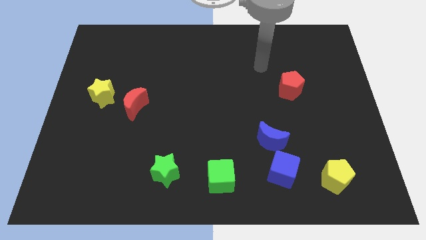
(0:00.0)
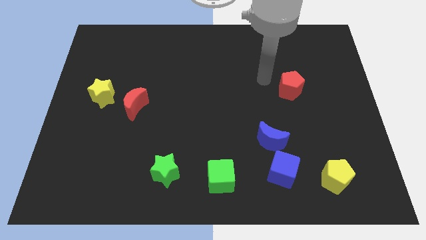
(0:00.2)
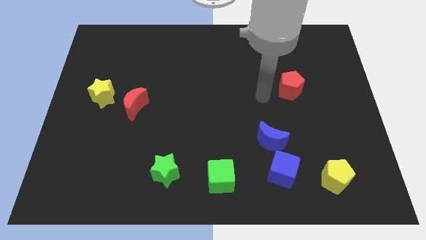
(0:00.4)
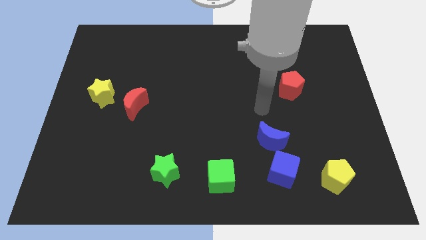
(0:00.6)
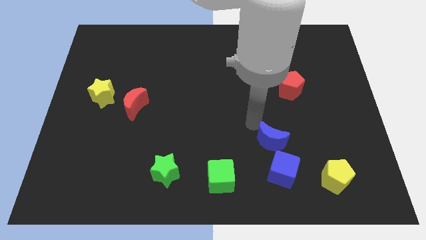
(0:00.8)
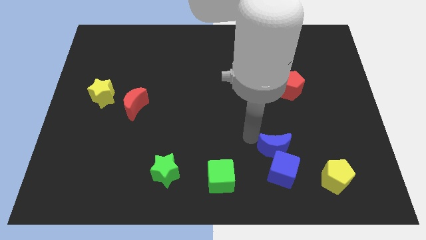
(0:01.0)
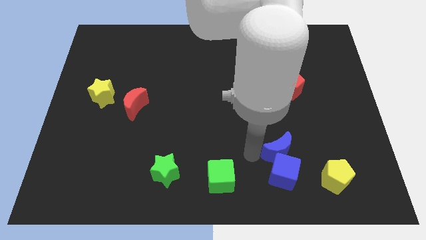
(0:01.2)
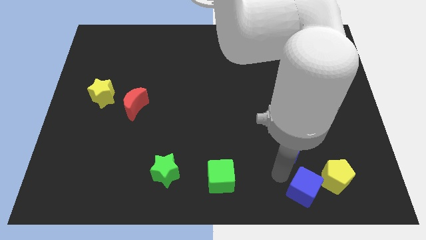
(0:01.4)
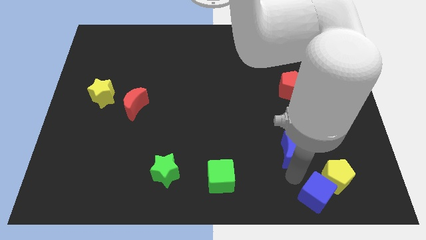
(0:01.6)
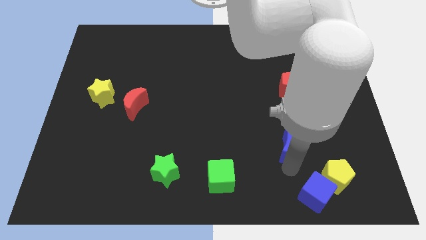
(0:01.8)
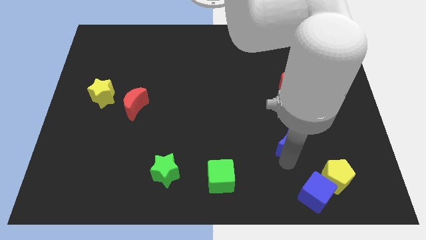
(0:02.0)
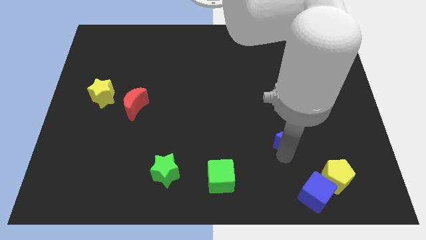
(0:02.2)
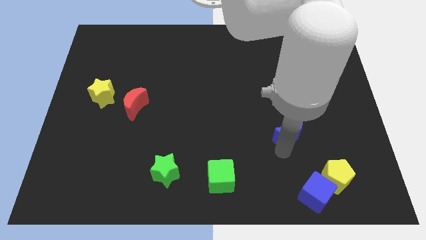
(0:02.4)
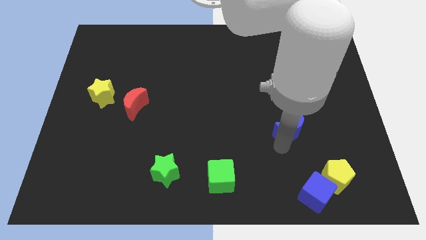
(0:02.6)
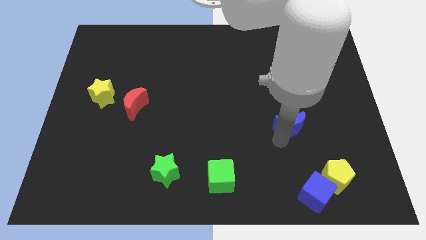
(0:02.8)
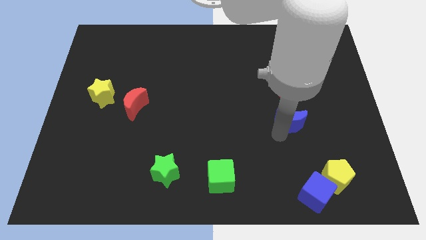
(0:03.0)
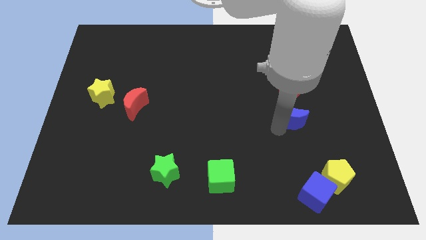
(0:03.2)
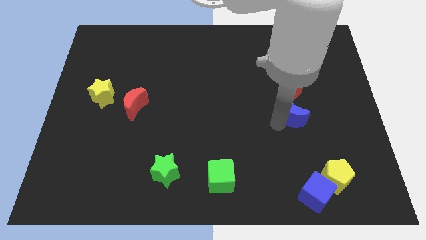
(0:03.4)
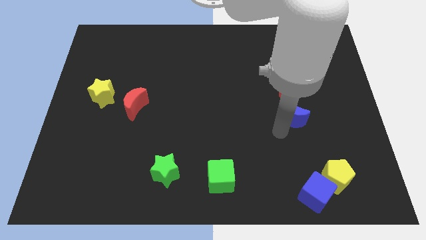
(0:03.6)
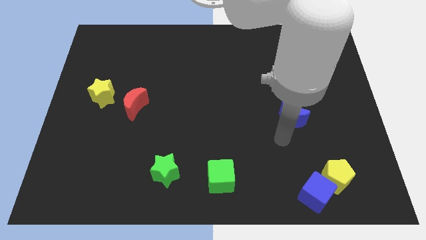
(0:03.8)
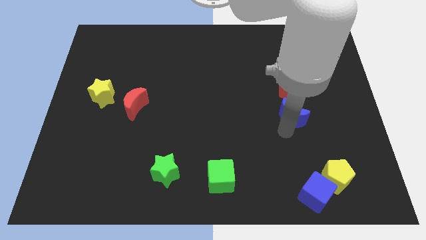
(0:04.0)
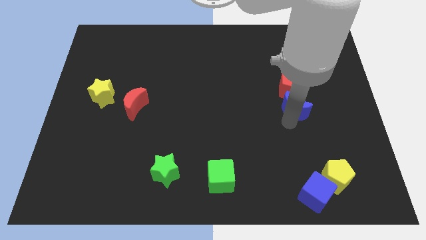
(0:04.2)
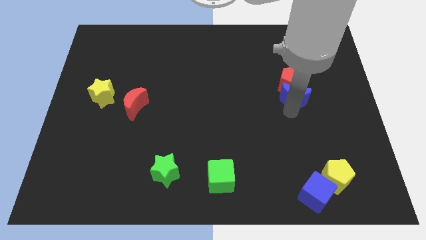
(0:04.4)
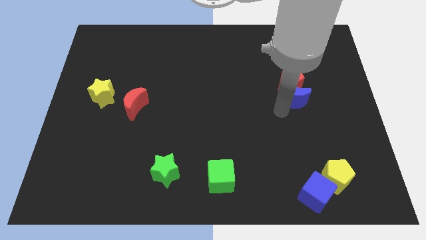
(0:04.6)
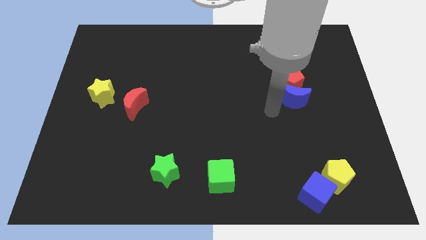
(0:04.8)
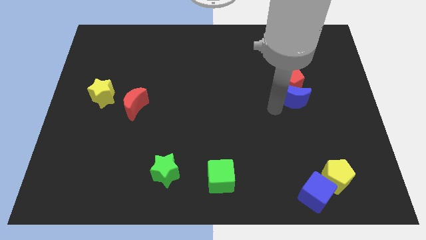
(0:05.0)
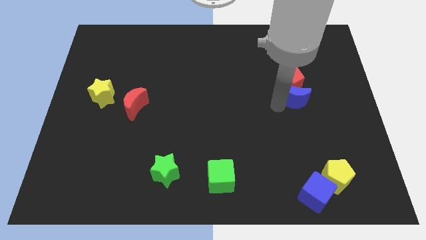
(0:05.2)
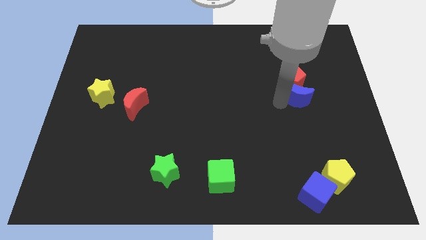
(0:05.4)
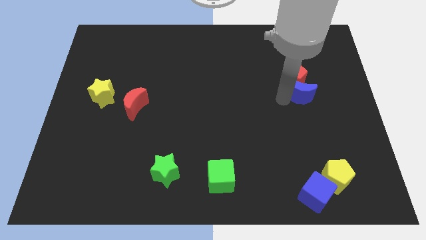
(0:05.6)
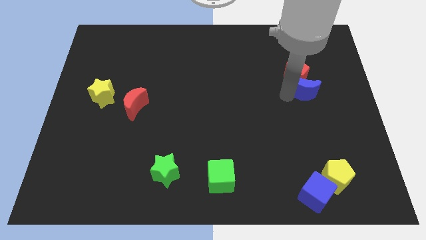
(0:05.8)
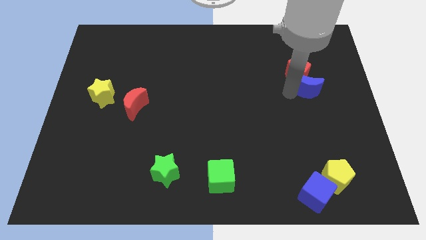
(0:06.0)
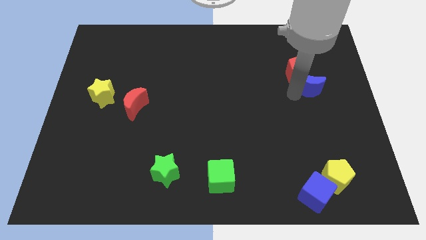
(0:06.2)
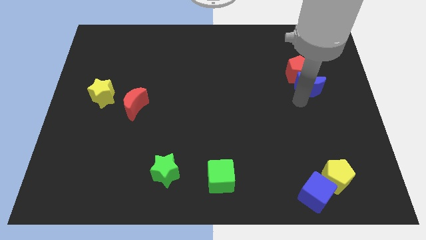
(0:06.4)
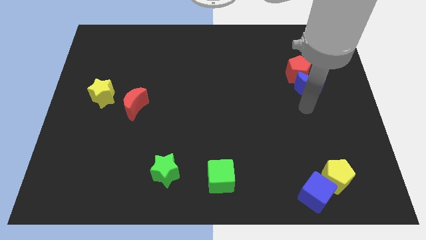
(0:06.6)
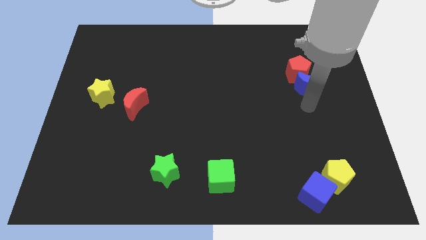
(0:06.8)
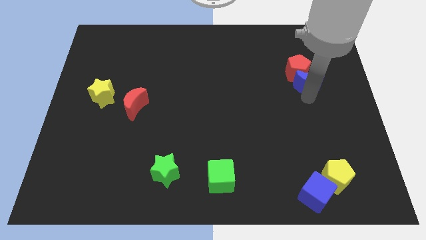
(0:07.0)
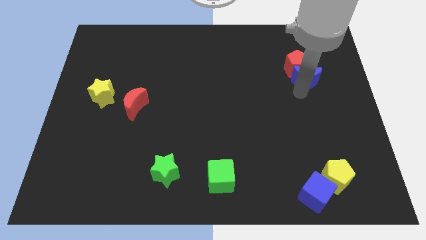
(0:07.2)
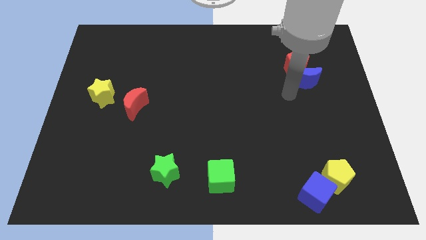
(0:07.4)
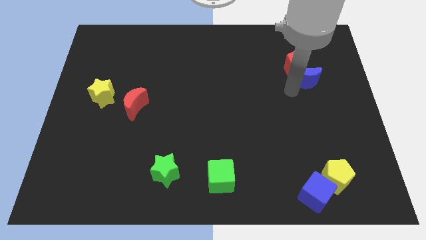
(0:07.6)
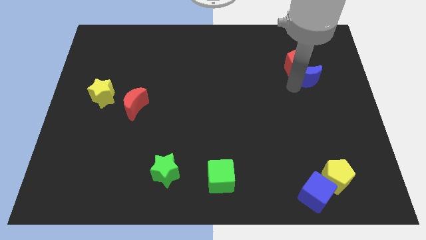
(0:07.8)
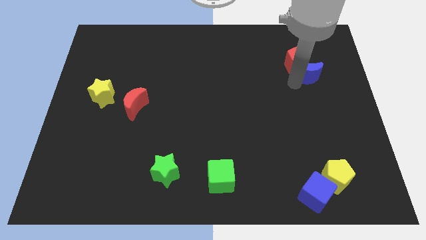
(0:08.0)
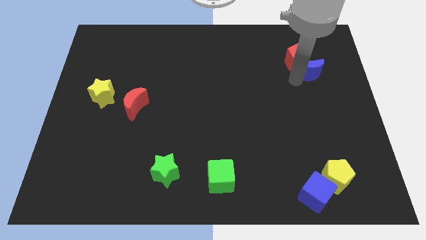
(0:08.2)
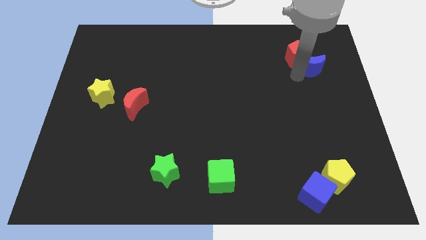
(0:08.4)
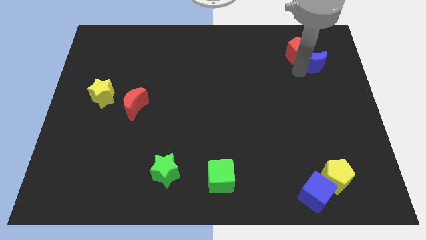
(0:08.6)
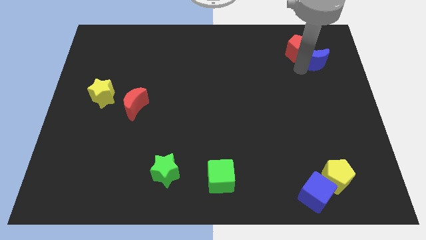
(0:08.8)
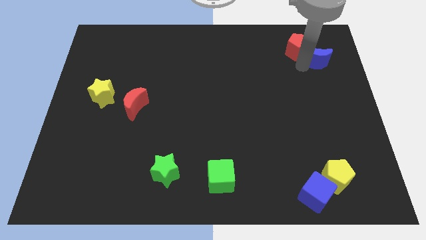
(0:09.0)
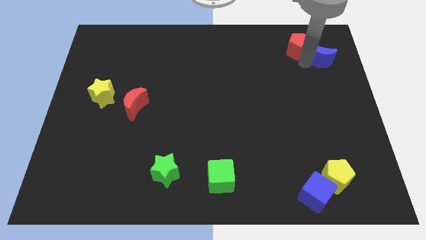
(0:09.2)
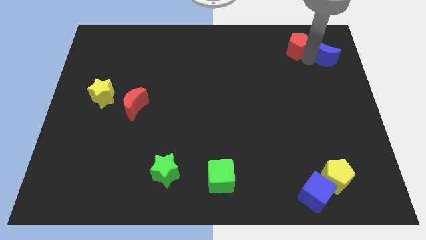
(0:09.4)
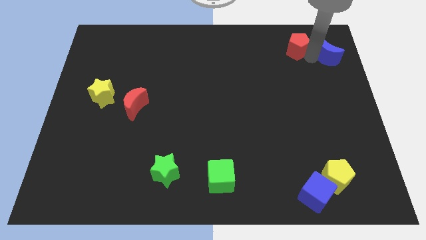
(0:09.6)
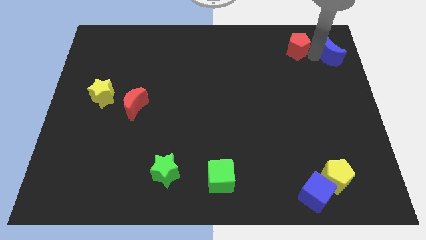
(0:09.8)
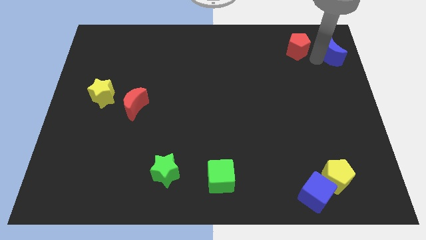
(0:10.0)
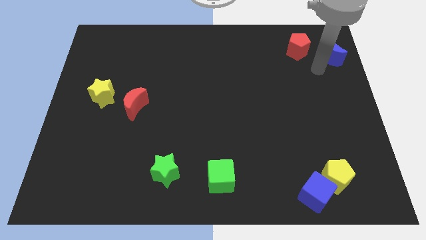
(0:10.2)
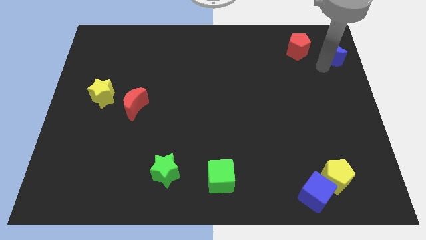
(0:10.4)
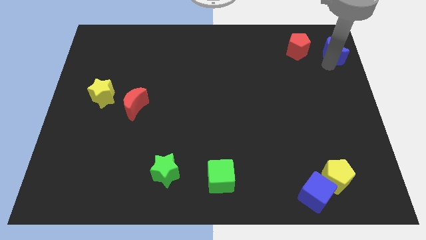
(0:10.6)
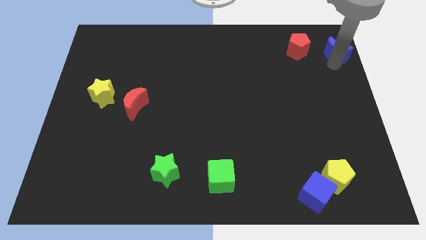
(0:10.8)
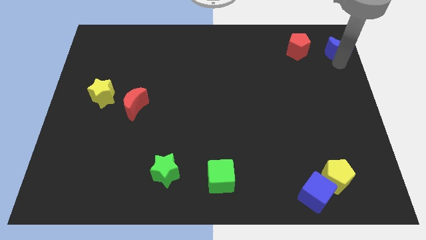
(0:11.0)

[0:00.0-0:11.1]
slide the blue moon to the top right

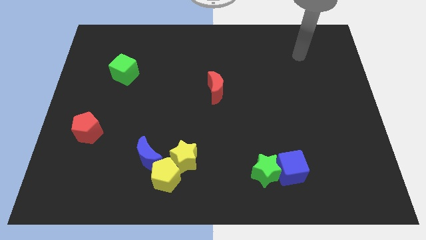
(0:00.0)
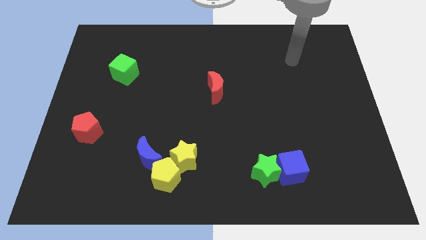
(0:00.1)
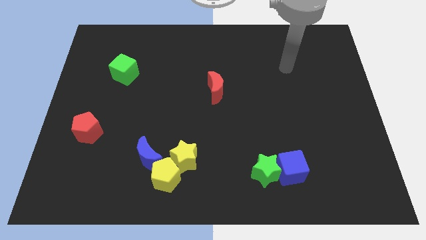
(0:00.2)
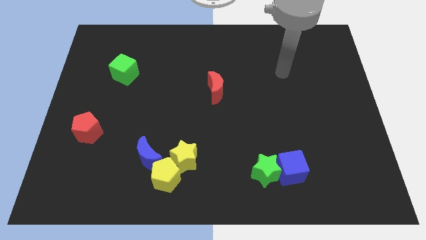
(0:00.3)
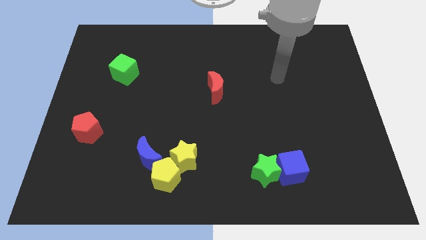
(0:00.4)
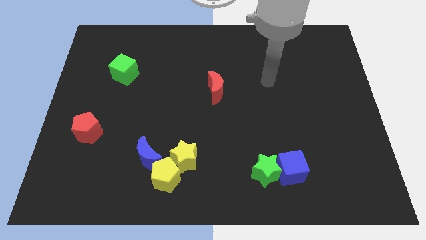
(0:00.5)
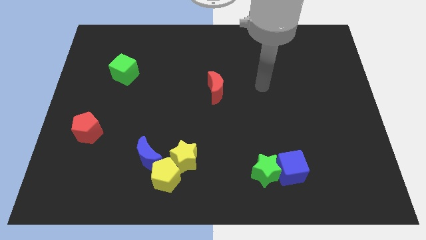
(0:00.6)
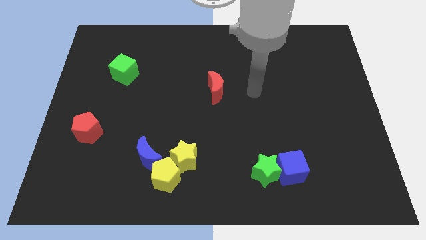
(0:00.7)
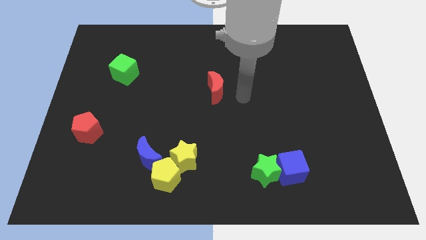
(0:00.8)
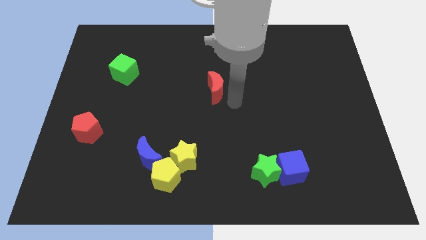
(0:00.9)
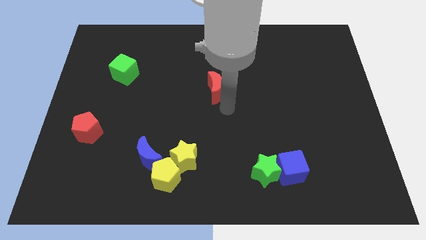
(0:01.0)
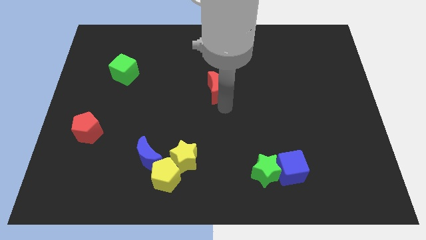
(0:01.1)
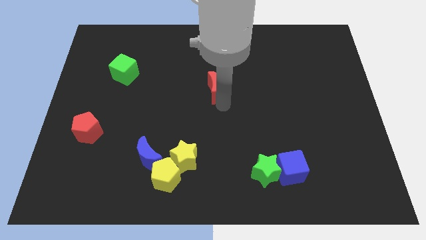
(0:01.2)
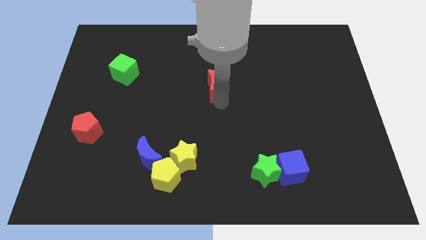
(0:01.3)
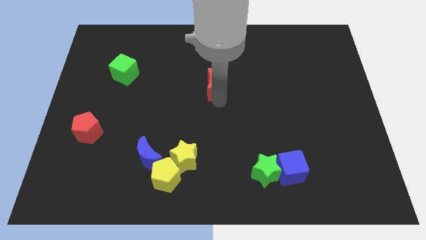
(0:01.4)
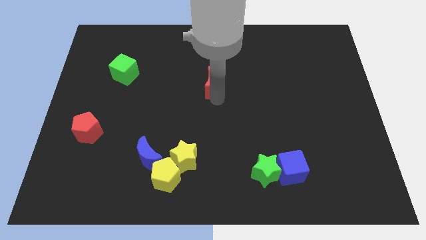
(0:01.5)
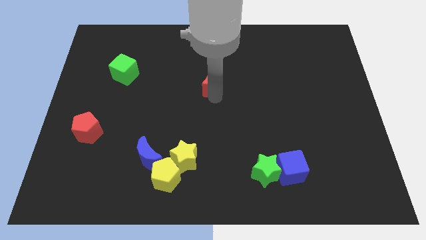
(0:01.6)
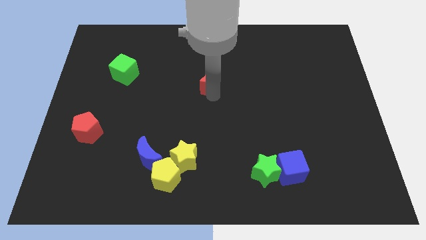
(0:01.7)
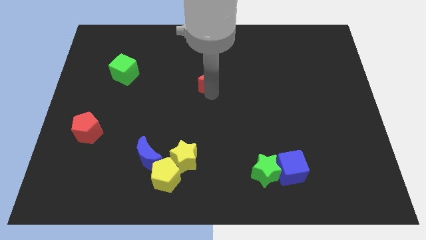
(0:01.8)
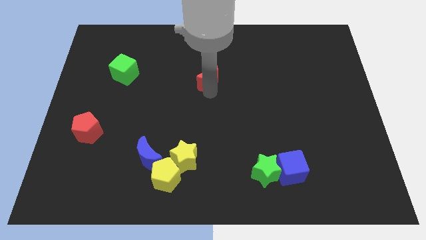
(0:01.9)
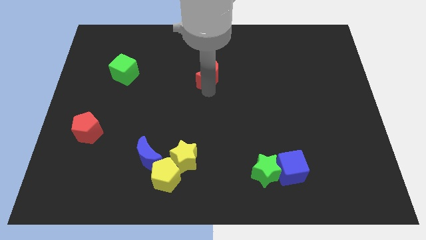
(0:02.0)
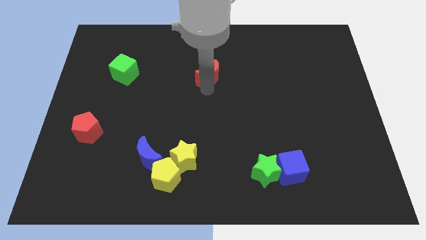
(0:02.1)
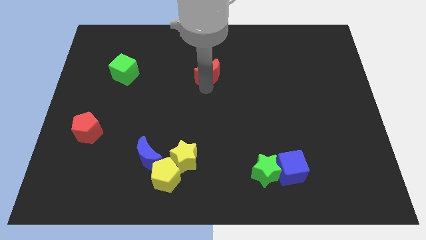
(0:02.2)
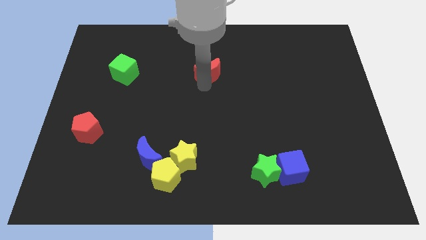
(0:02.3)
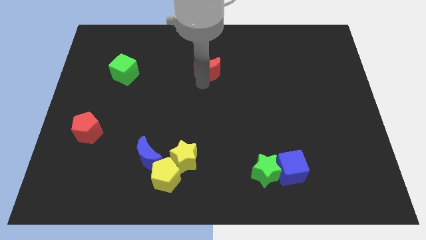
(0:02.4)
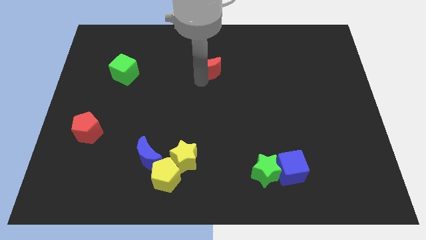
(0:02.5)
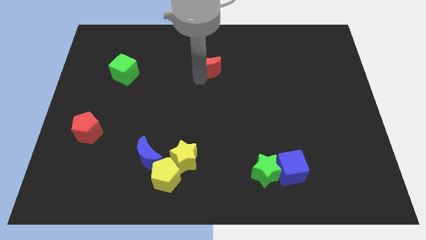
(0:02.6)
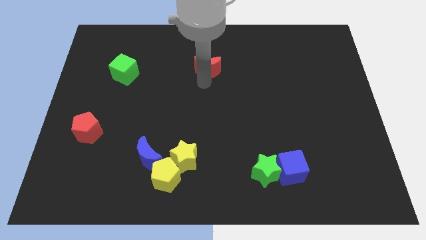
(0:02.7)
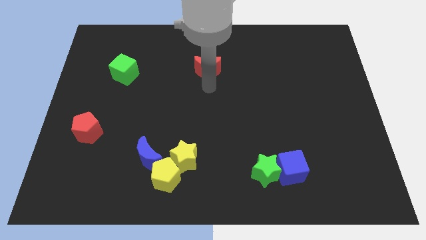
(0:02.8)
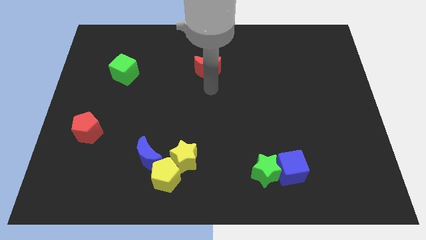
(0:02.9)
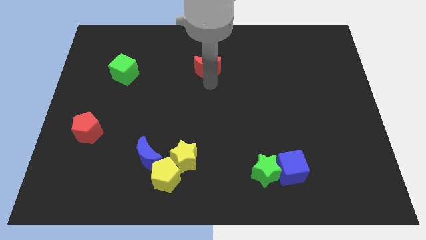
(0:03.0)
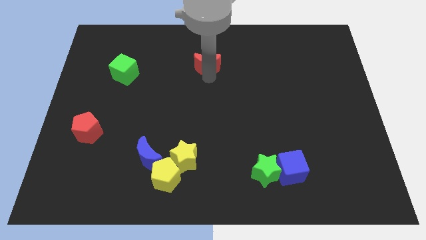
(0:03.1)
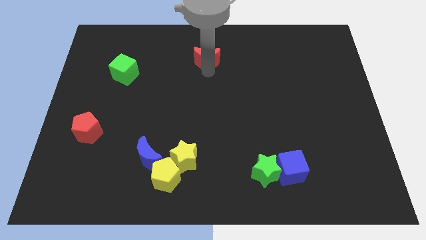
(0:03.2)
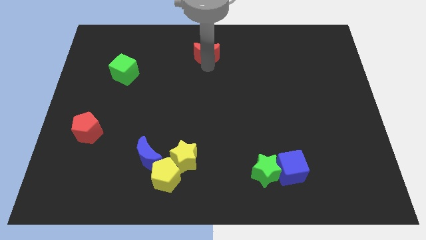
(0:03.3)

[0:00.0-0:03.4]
slide the red moon to the towards your base
